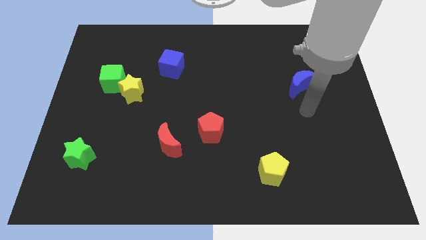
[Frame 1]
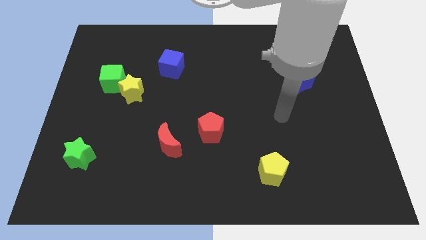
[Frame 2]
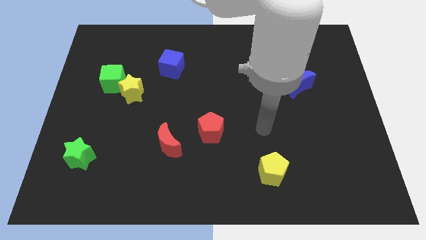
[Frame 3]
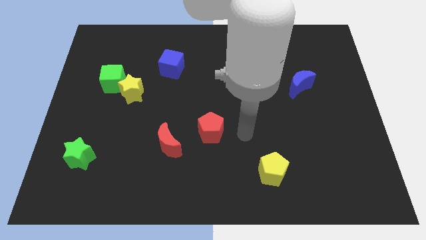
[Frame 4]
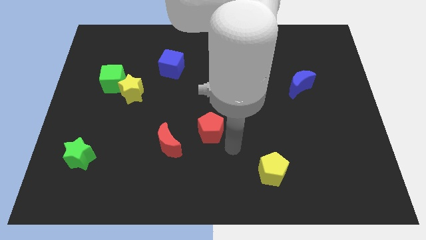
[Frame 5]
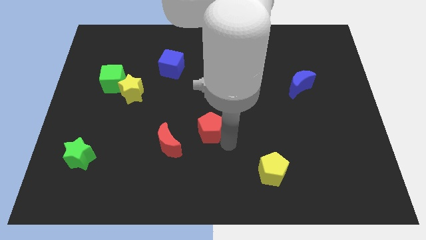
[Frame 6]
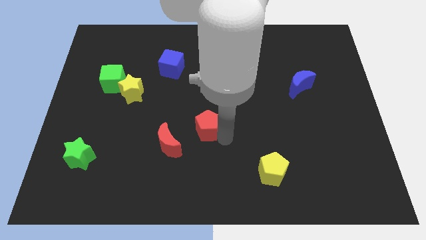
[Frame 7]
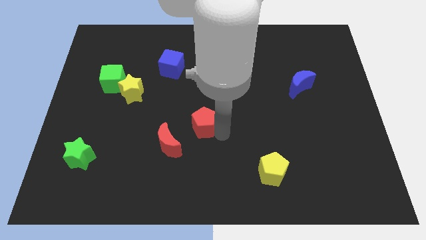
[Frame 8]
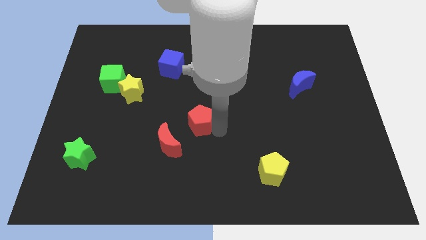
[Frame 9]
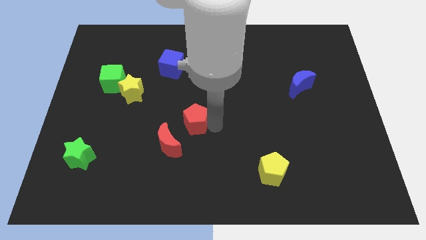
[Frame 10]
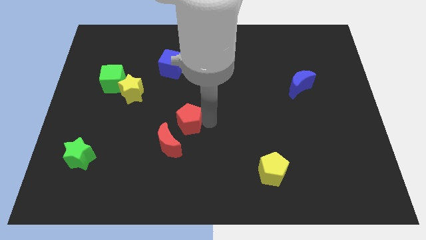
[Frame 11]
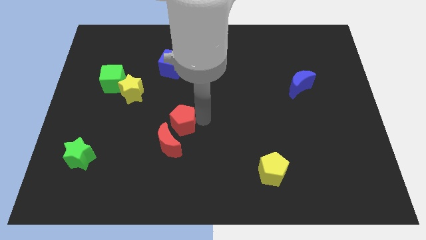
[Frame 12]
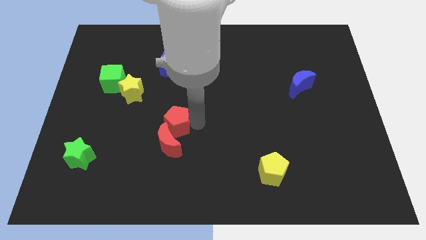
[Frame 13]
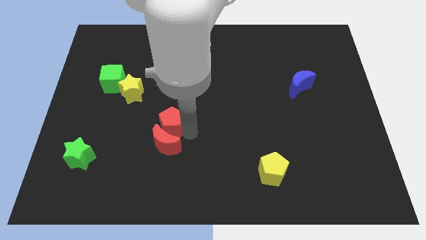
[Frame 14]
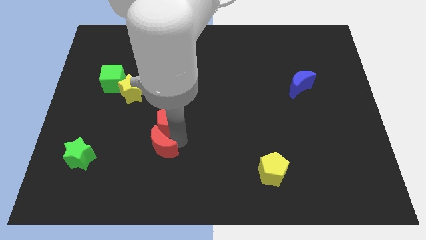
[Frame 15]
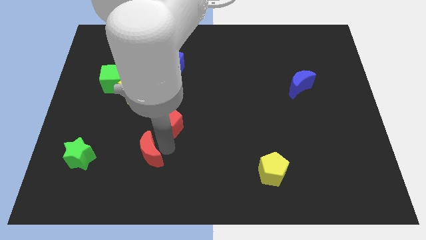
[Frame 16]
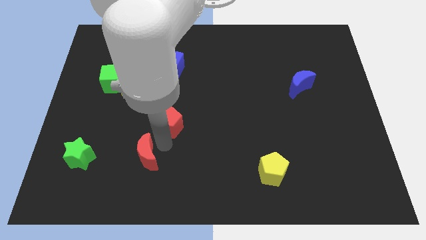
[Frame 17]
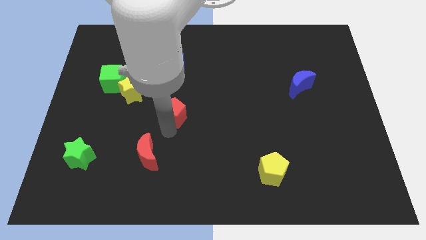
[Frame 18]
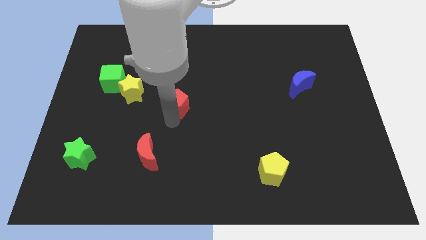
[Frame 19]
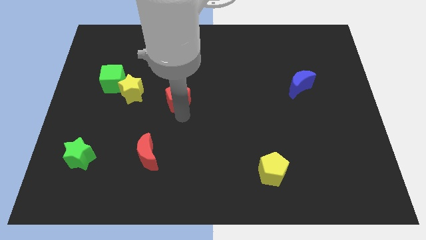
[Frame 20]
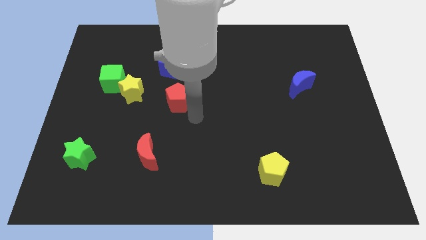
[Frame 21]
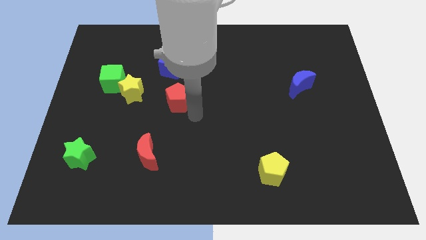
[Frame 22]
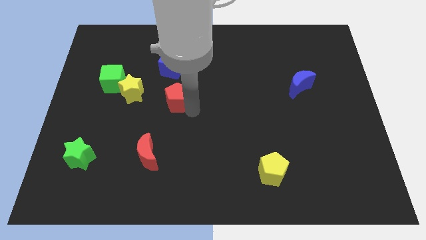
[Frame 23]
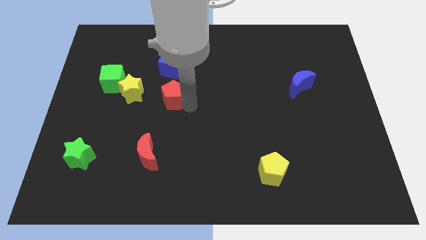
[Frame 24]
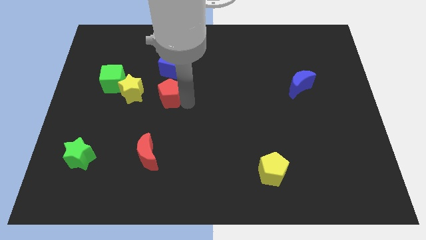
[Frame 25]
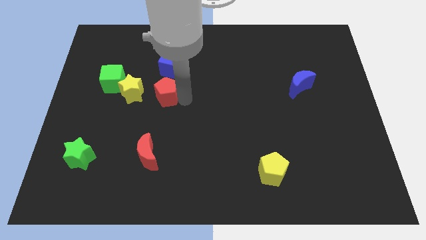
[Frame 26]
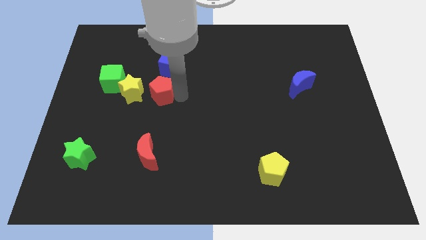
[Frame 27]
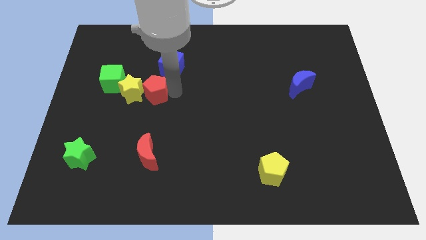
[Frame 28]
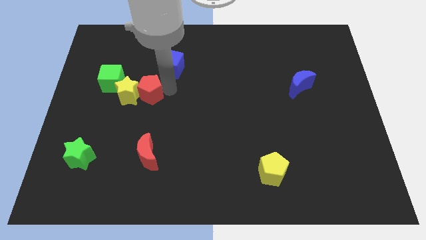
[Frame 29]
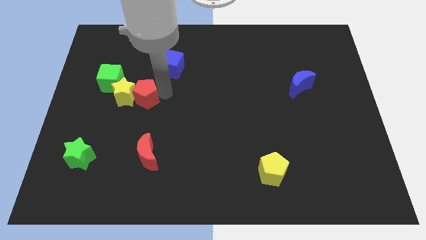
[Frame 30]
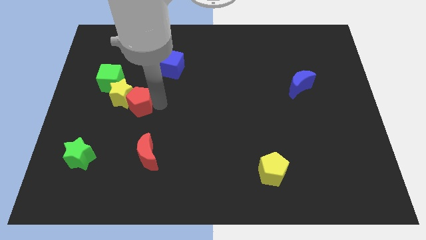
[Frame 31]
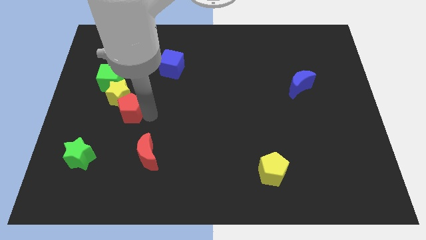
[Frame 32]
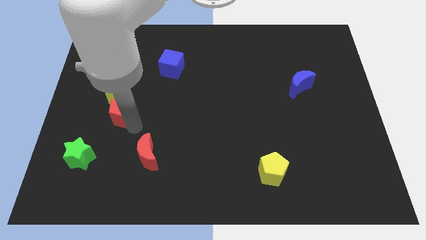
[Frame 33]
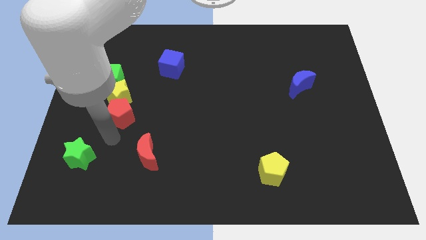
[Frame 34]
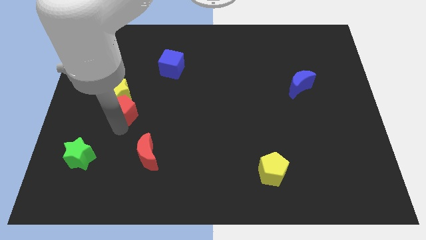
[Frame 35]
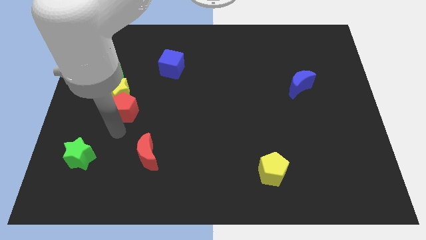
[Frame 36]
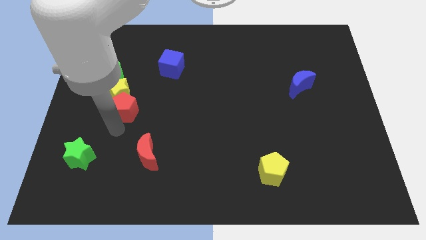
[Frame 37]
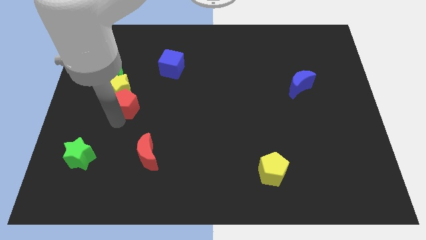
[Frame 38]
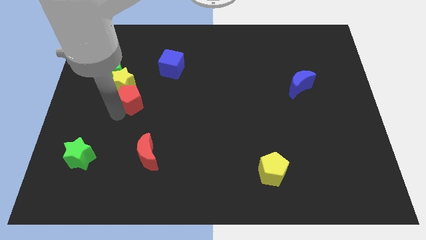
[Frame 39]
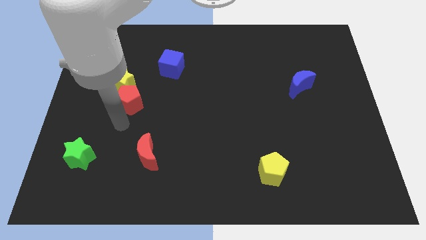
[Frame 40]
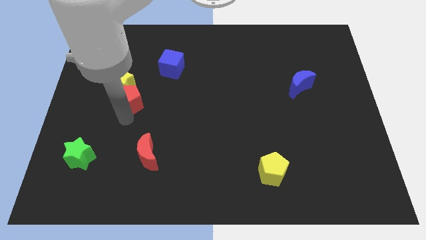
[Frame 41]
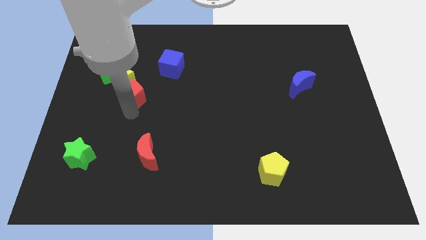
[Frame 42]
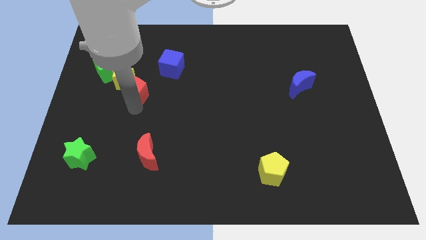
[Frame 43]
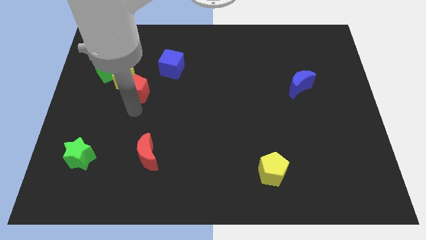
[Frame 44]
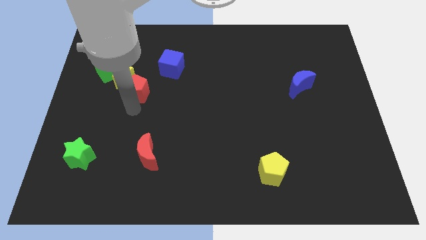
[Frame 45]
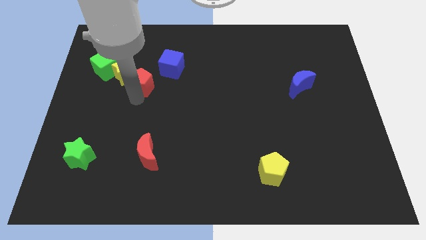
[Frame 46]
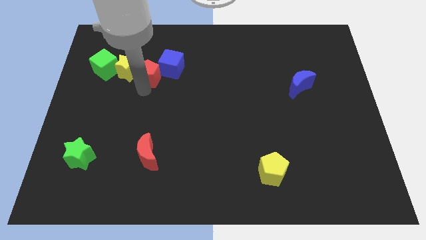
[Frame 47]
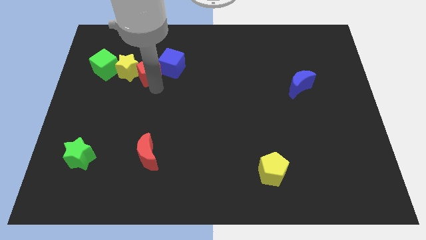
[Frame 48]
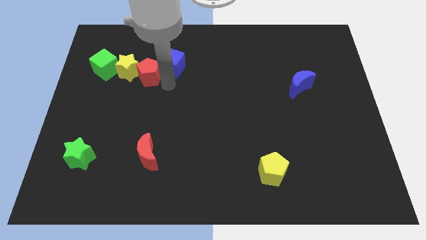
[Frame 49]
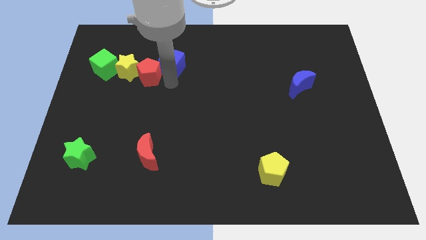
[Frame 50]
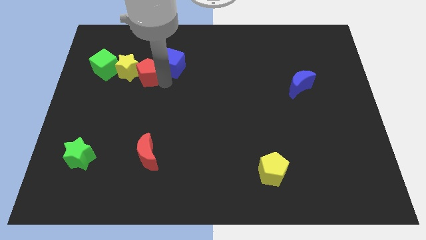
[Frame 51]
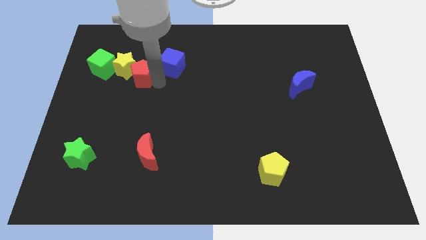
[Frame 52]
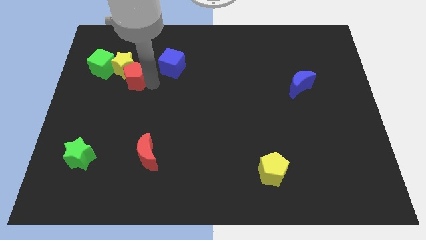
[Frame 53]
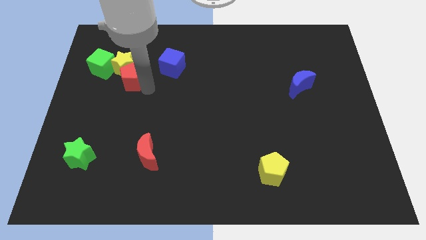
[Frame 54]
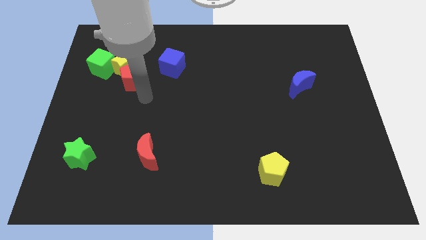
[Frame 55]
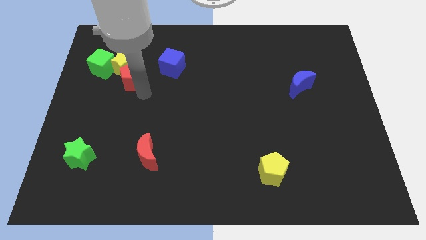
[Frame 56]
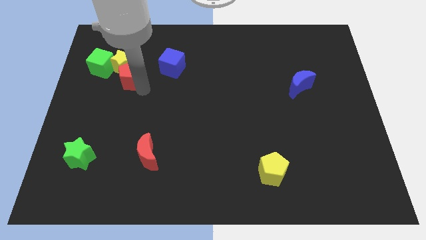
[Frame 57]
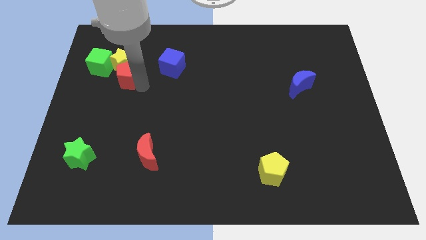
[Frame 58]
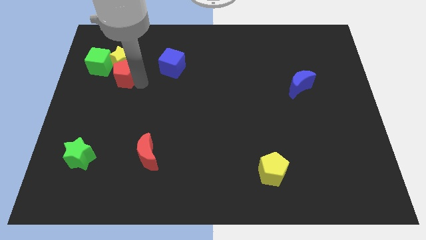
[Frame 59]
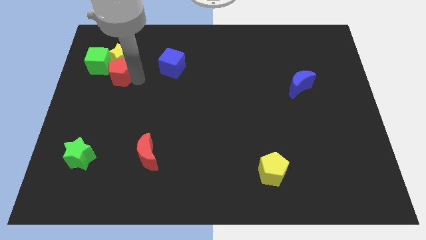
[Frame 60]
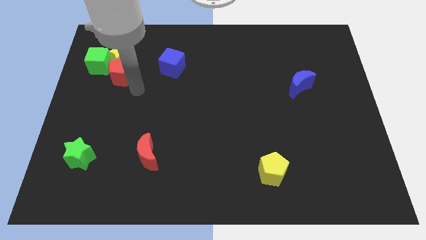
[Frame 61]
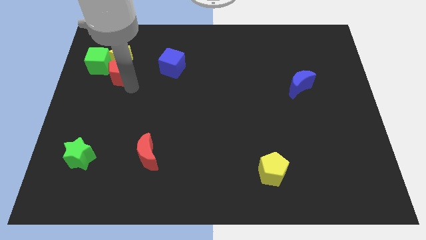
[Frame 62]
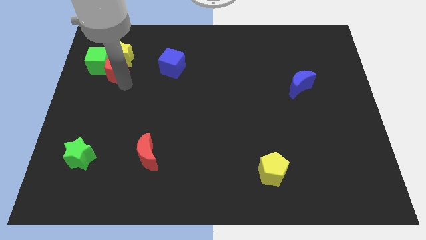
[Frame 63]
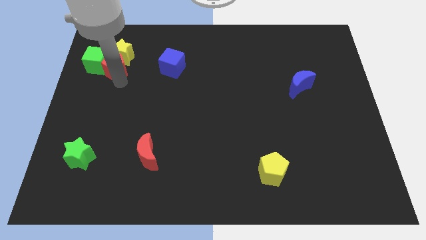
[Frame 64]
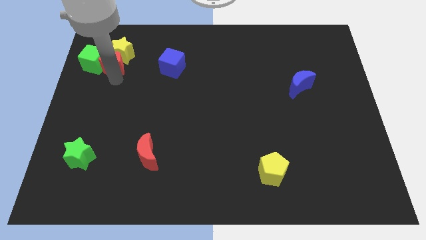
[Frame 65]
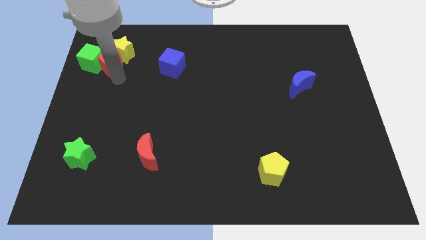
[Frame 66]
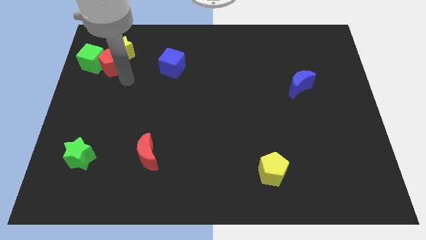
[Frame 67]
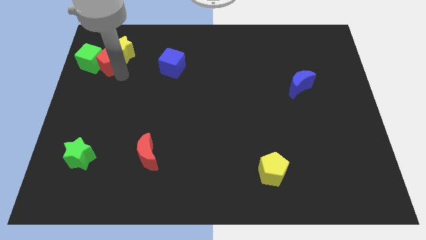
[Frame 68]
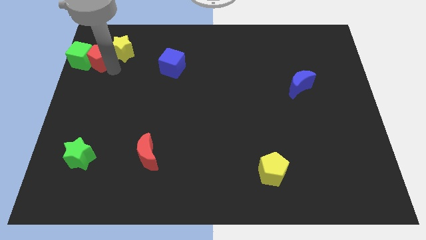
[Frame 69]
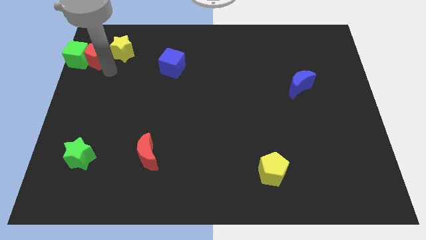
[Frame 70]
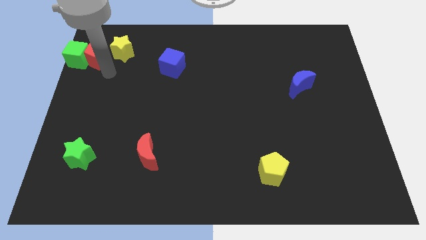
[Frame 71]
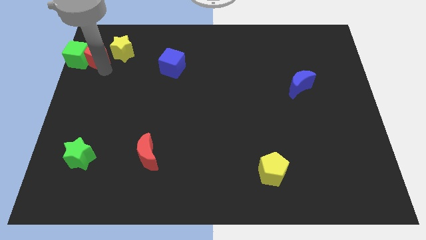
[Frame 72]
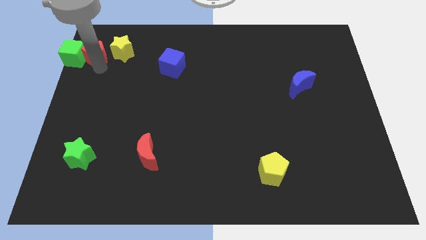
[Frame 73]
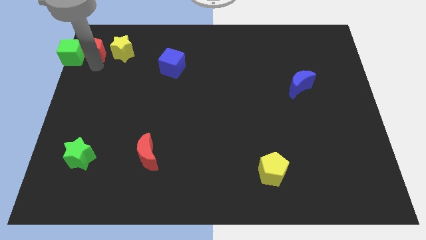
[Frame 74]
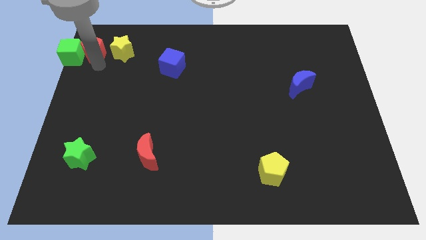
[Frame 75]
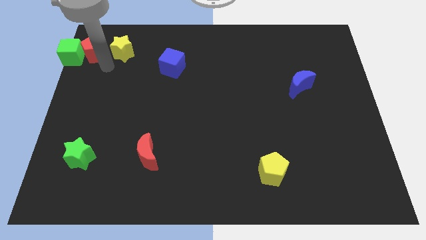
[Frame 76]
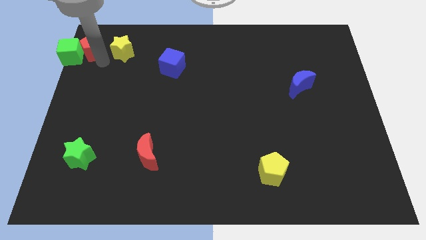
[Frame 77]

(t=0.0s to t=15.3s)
move the red pentagon to the top left corner
